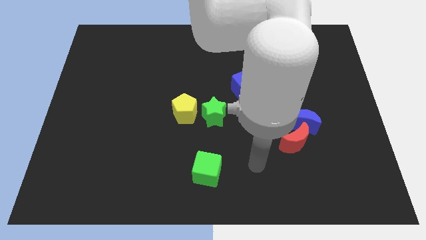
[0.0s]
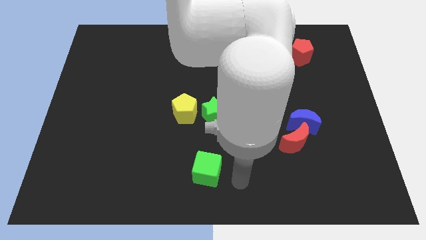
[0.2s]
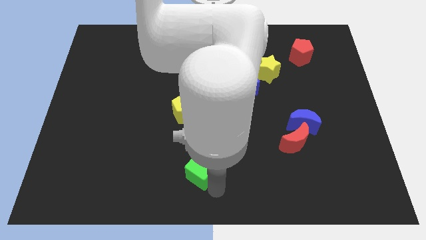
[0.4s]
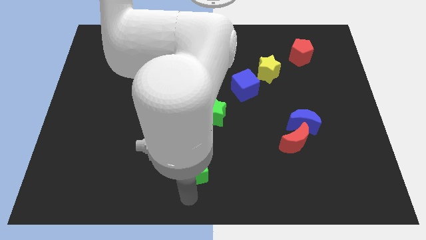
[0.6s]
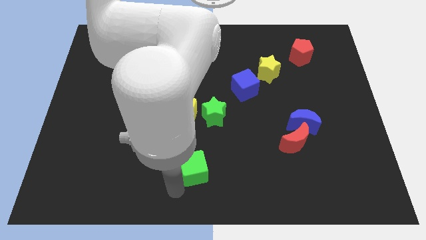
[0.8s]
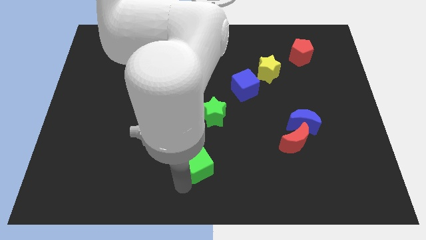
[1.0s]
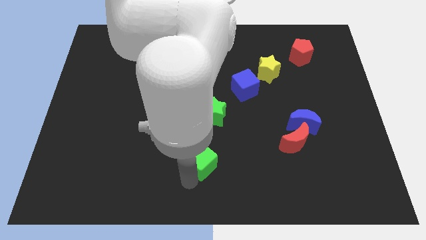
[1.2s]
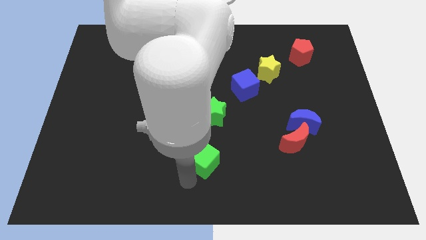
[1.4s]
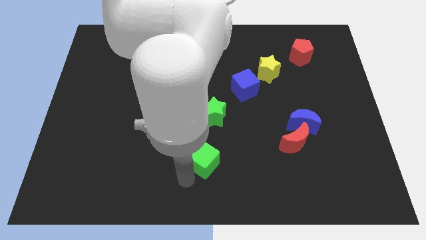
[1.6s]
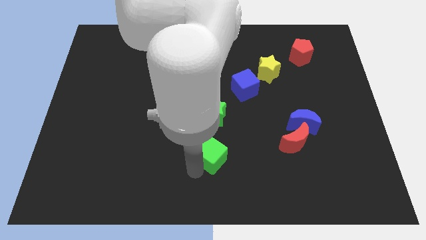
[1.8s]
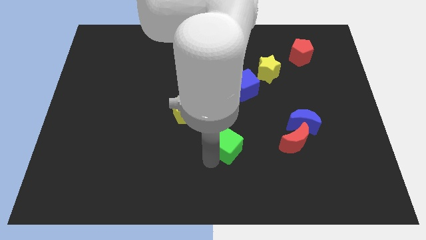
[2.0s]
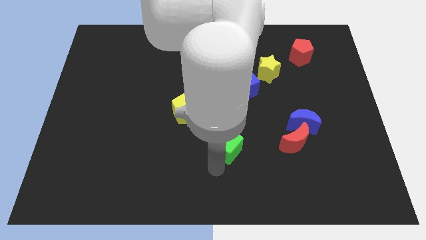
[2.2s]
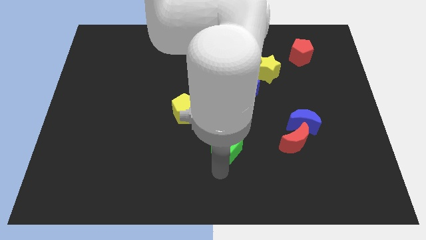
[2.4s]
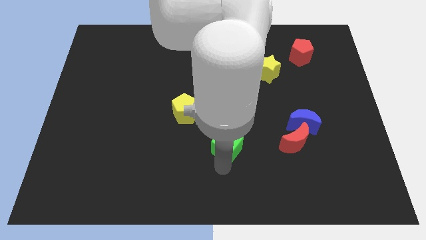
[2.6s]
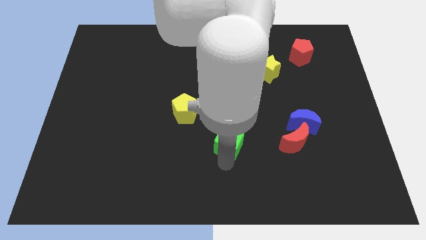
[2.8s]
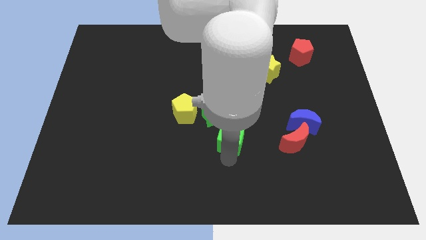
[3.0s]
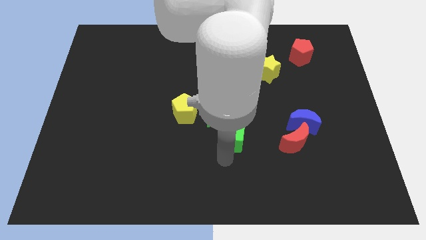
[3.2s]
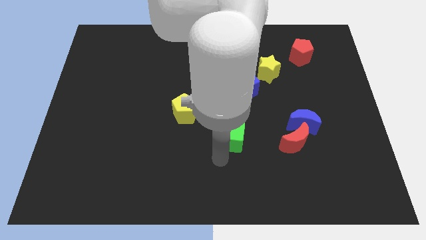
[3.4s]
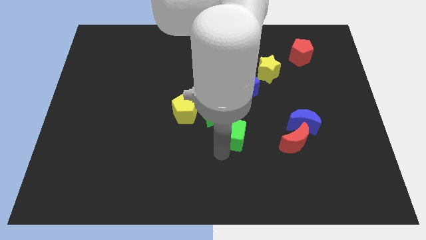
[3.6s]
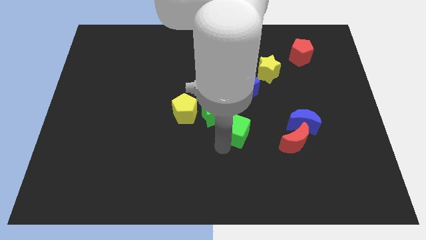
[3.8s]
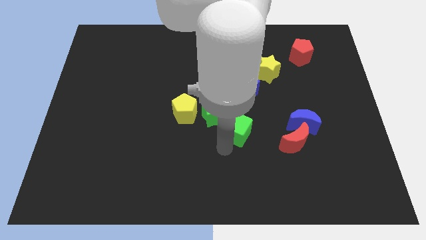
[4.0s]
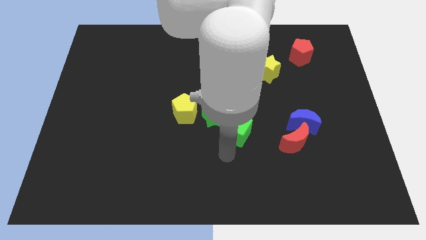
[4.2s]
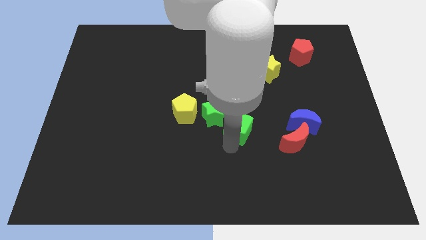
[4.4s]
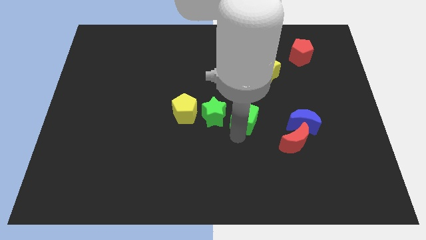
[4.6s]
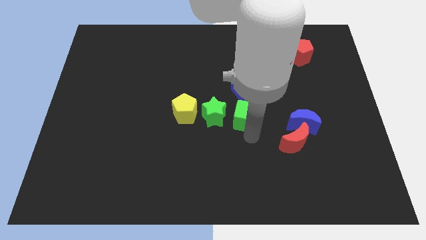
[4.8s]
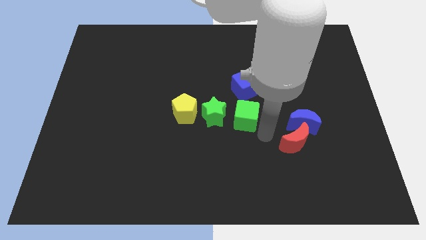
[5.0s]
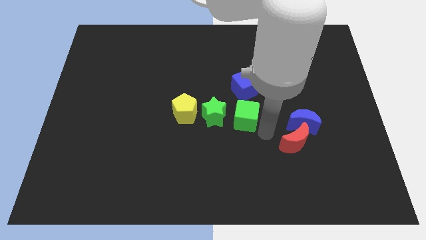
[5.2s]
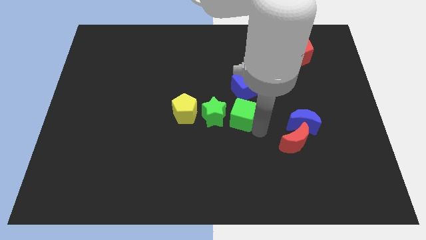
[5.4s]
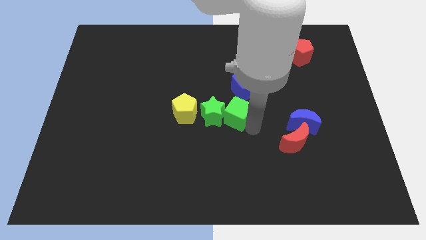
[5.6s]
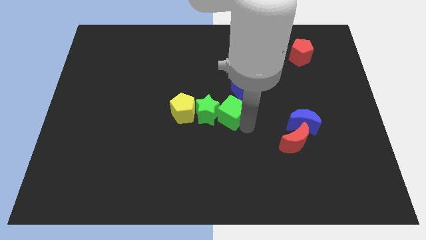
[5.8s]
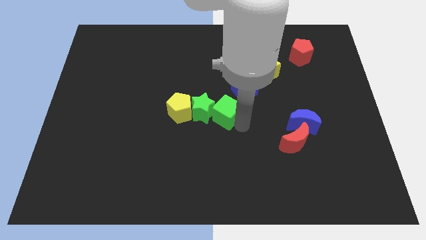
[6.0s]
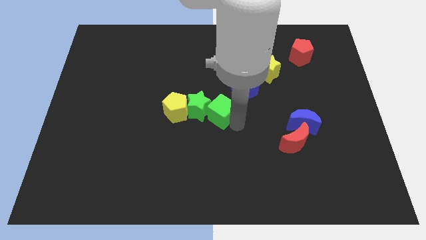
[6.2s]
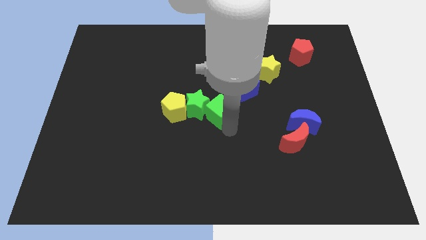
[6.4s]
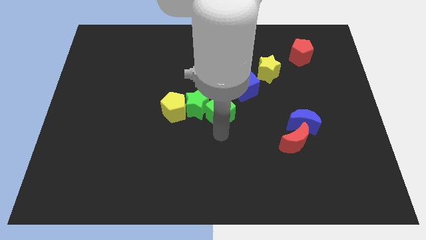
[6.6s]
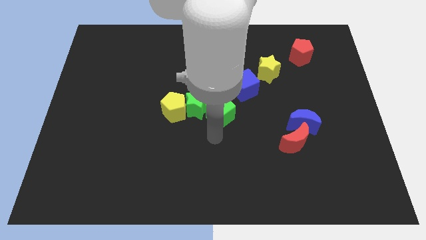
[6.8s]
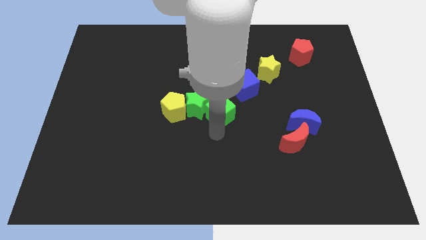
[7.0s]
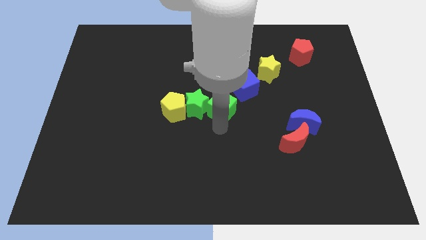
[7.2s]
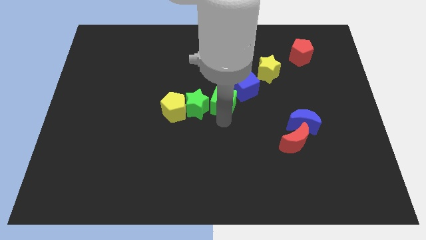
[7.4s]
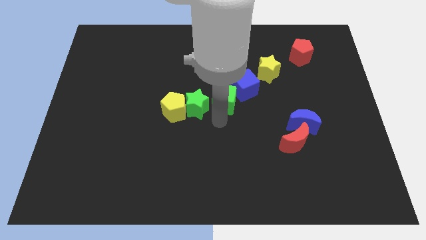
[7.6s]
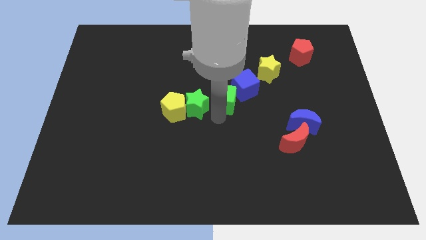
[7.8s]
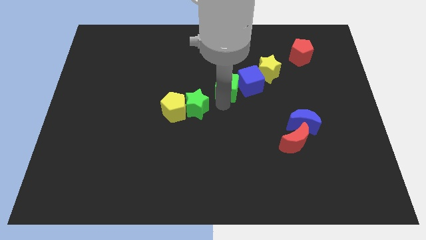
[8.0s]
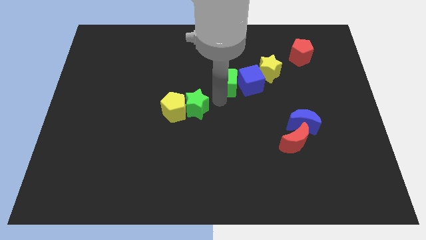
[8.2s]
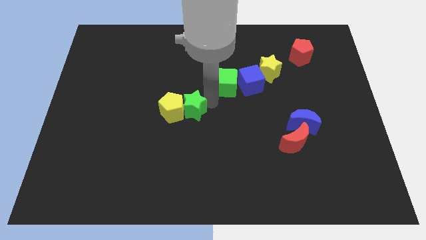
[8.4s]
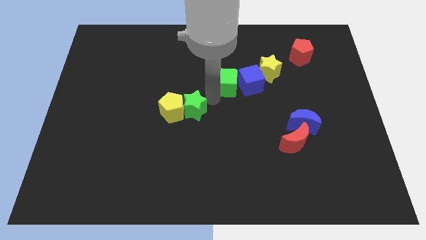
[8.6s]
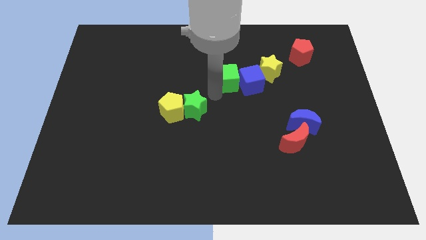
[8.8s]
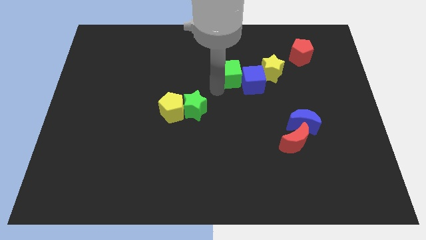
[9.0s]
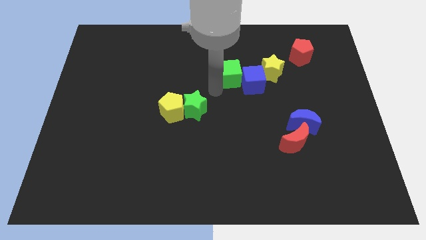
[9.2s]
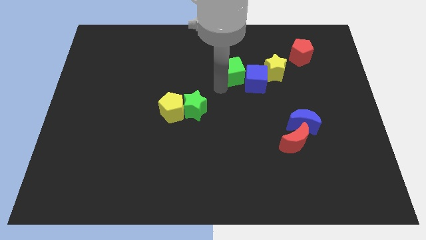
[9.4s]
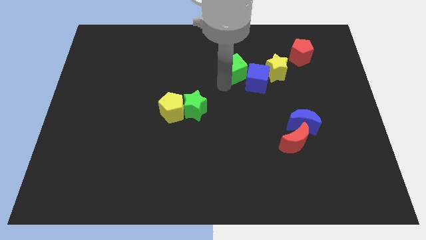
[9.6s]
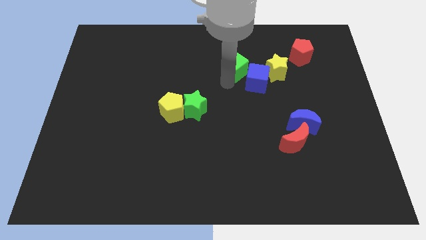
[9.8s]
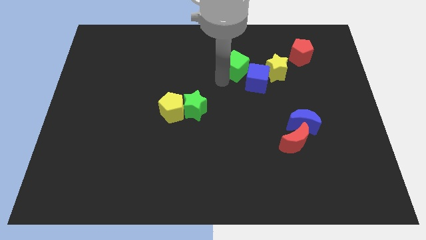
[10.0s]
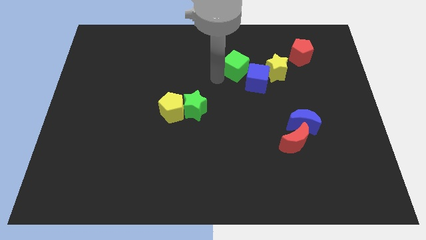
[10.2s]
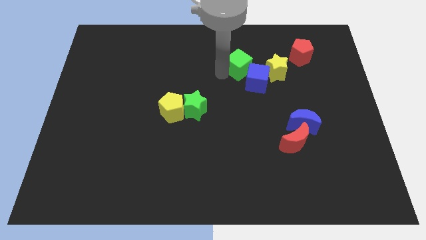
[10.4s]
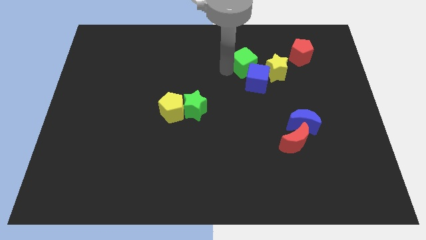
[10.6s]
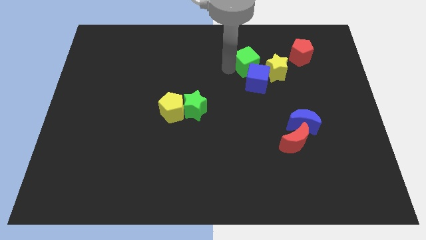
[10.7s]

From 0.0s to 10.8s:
push the green cube just left of the red pentagon

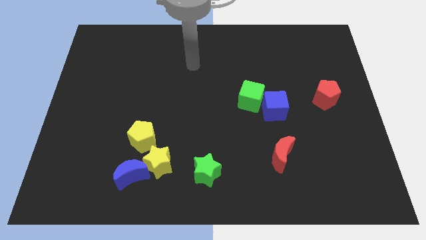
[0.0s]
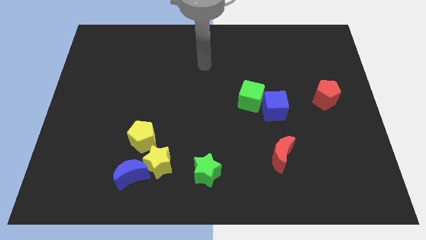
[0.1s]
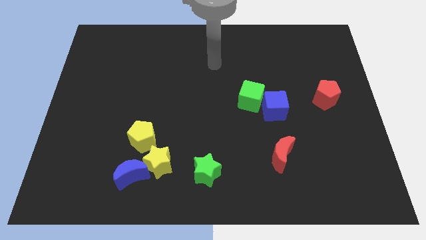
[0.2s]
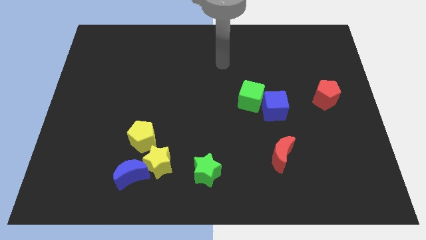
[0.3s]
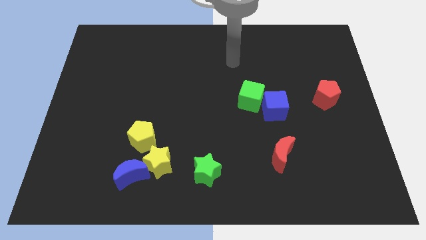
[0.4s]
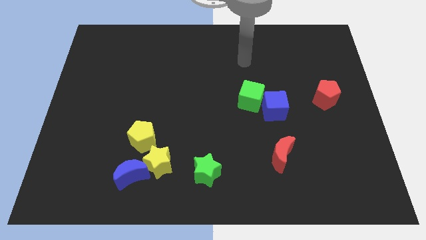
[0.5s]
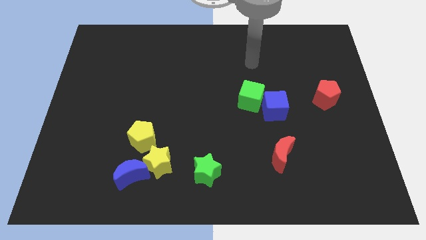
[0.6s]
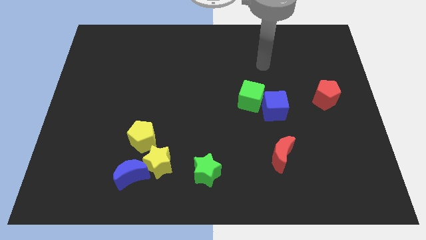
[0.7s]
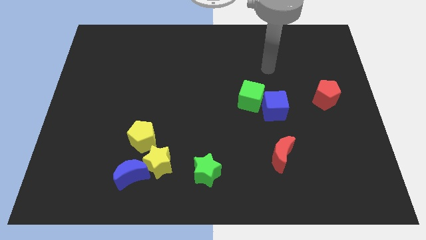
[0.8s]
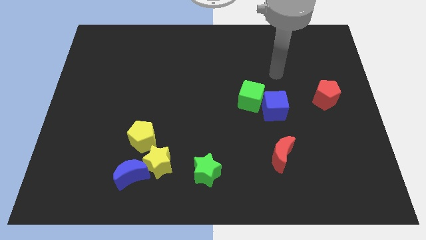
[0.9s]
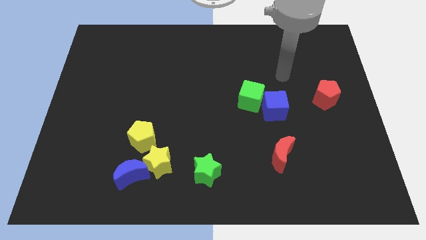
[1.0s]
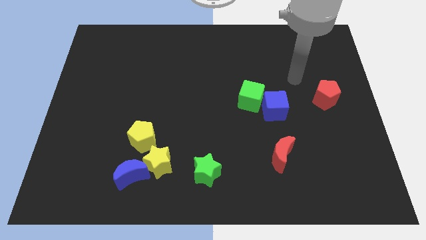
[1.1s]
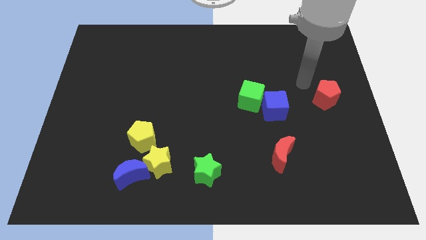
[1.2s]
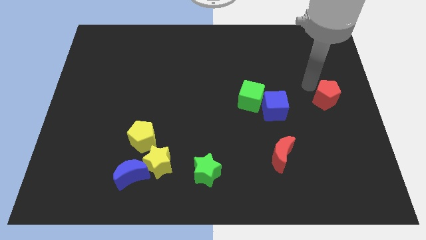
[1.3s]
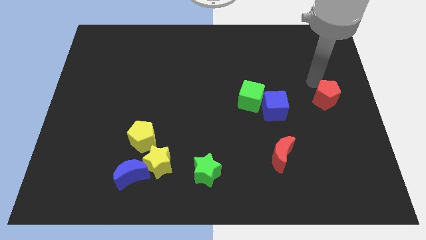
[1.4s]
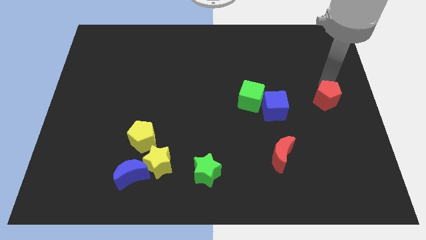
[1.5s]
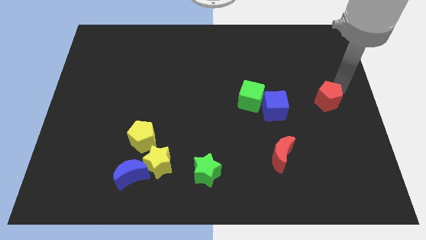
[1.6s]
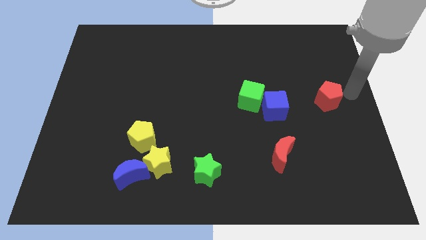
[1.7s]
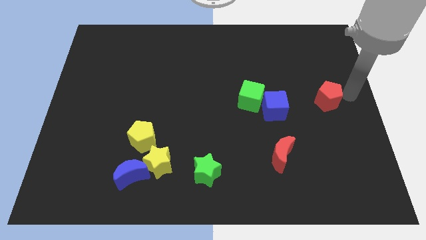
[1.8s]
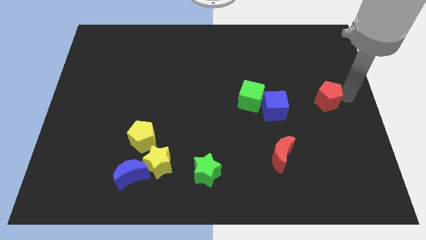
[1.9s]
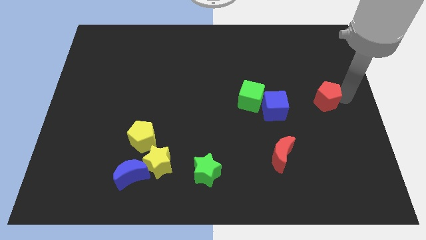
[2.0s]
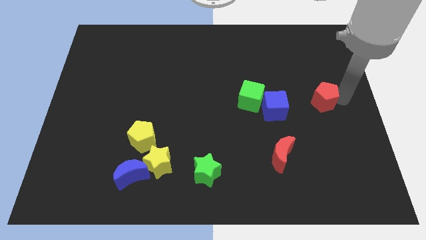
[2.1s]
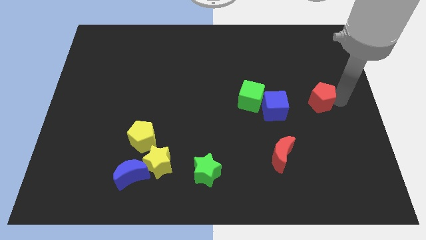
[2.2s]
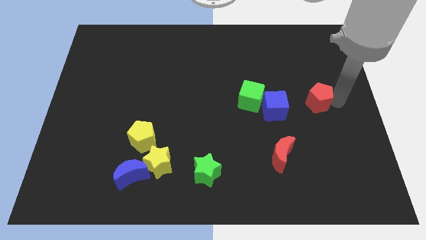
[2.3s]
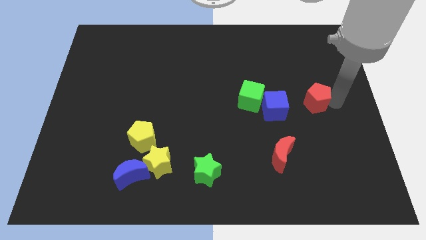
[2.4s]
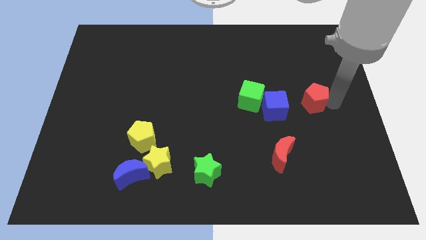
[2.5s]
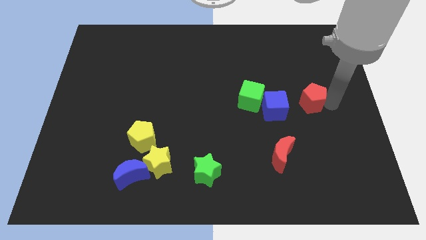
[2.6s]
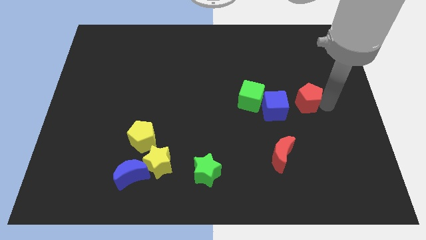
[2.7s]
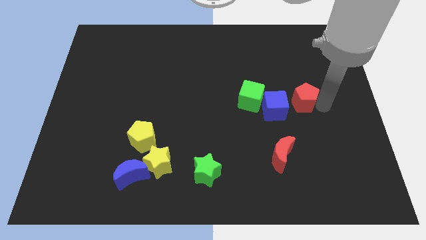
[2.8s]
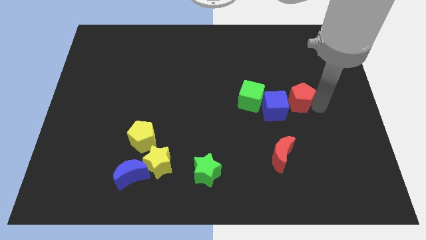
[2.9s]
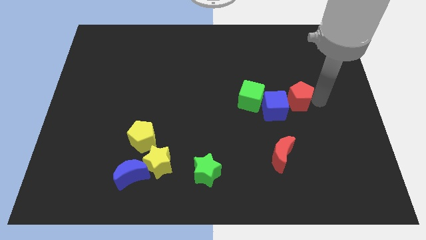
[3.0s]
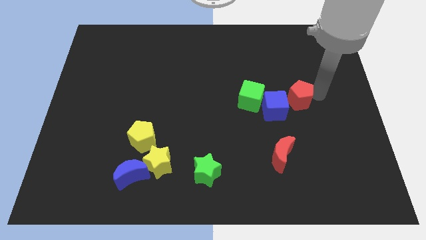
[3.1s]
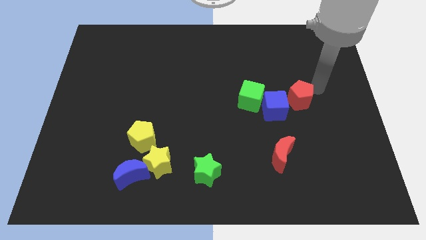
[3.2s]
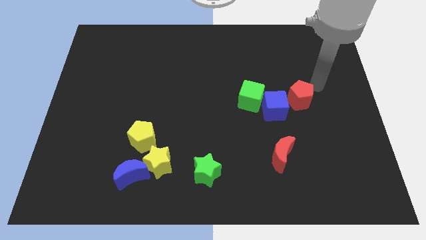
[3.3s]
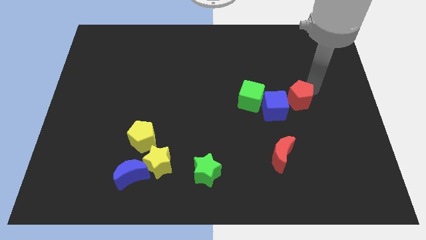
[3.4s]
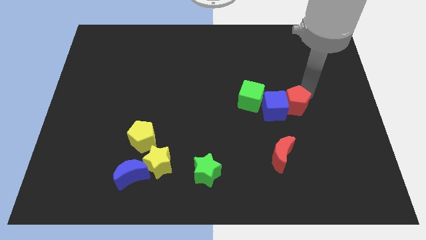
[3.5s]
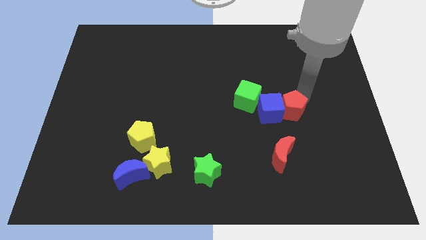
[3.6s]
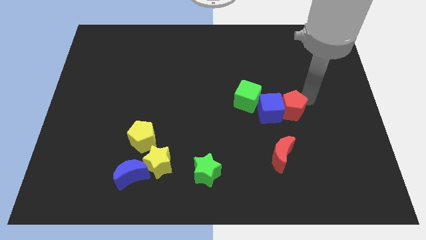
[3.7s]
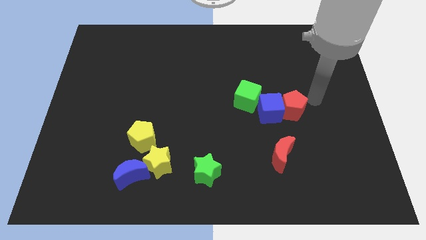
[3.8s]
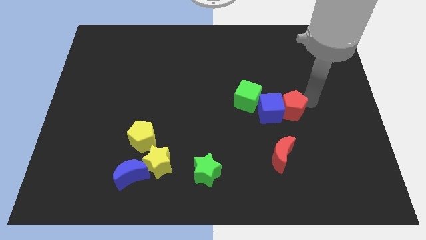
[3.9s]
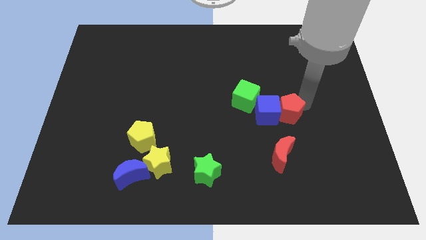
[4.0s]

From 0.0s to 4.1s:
slide the red pentagon diagonally down and to the right of the green cube
